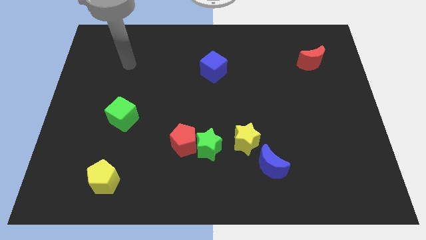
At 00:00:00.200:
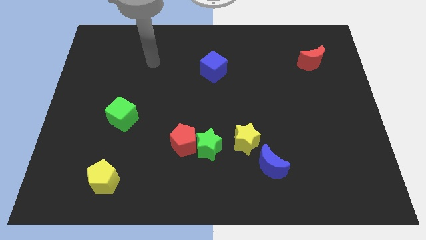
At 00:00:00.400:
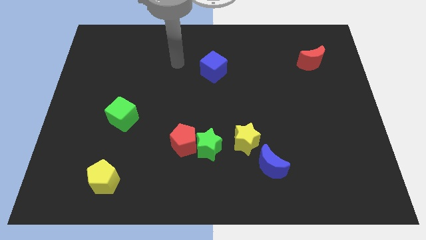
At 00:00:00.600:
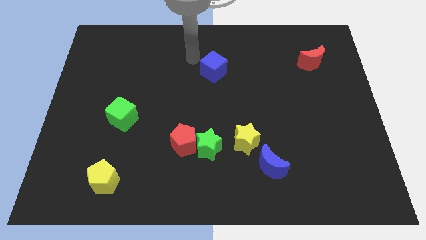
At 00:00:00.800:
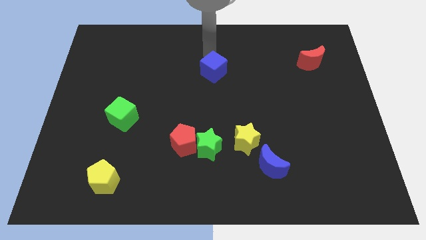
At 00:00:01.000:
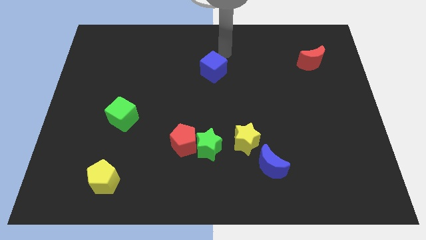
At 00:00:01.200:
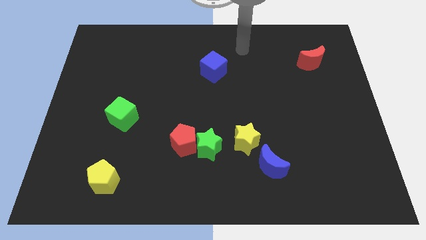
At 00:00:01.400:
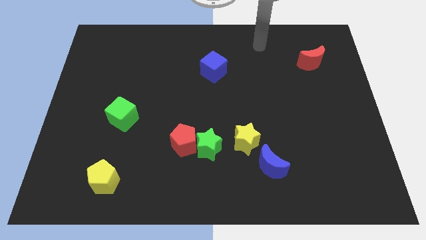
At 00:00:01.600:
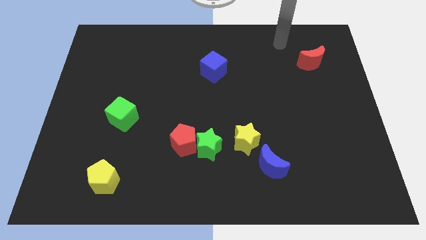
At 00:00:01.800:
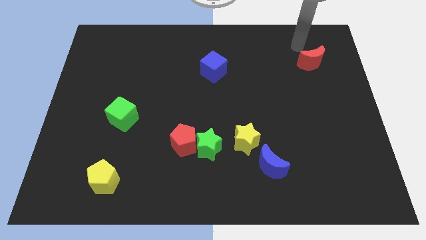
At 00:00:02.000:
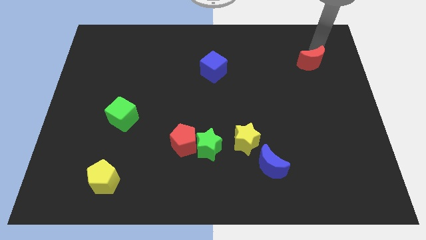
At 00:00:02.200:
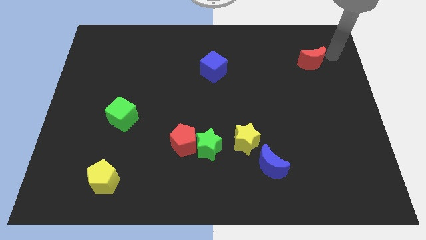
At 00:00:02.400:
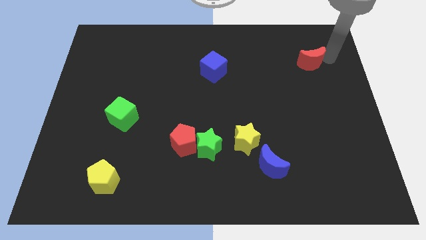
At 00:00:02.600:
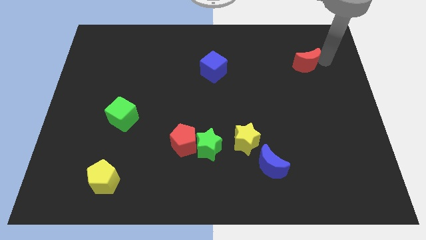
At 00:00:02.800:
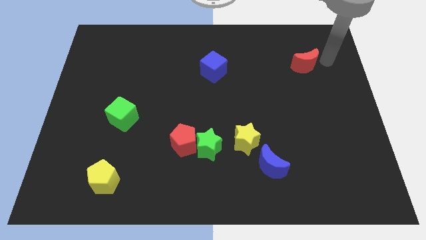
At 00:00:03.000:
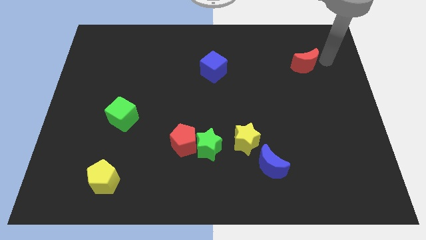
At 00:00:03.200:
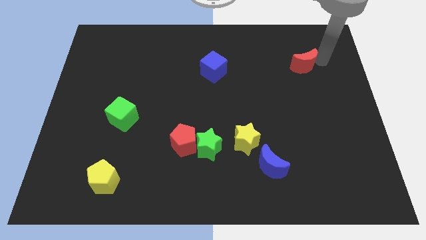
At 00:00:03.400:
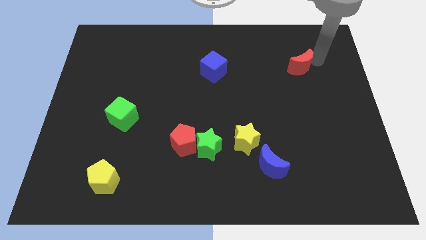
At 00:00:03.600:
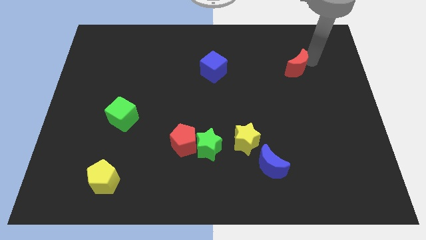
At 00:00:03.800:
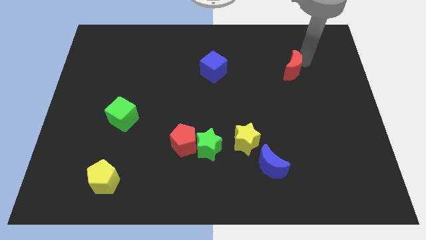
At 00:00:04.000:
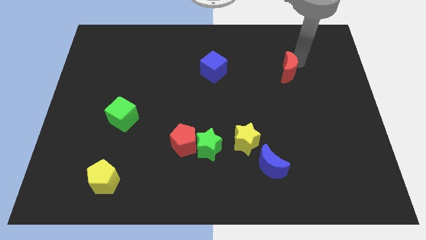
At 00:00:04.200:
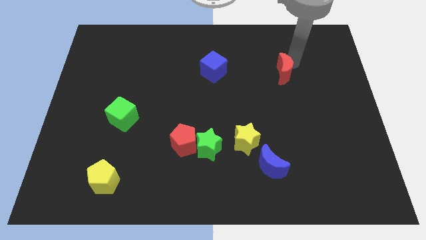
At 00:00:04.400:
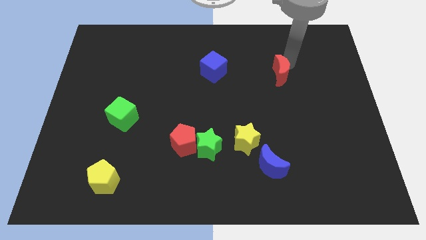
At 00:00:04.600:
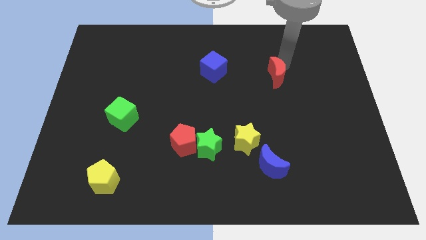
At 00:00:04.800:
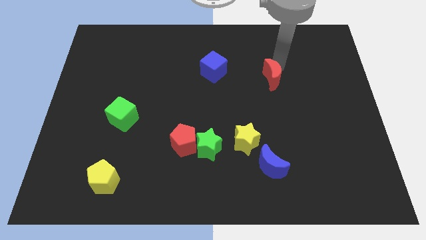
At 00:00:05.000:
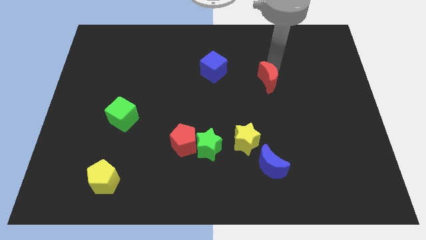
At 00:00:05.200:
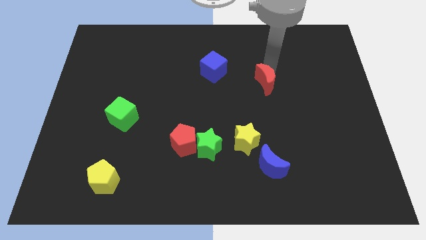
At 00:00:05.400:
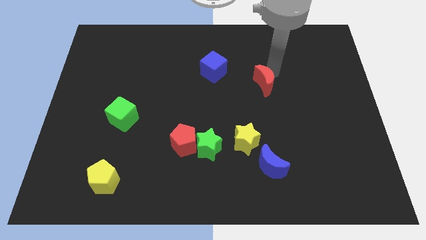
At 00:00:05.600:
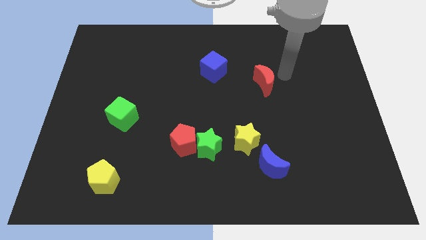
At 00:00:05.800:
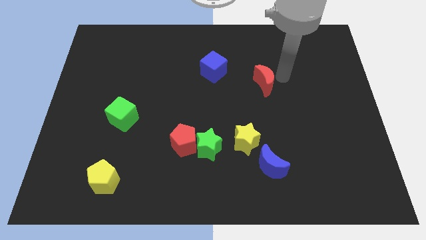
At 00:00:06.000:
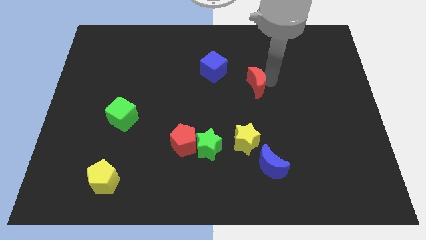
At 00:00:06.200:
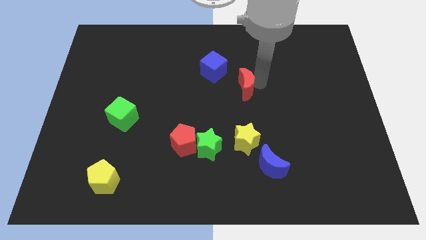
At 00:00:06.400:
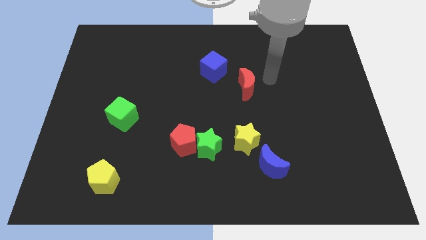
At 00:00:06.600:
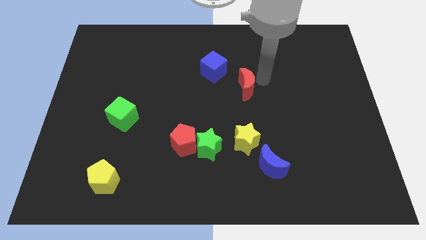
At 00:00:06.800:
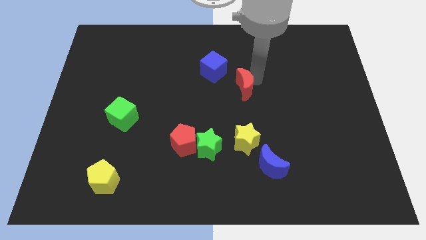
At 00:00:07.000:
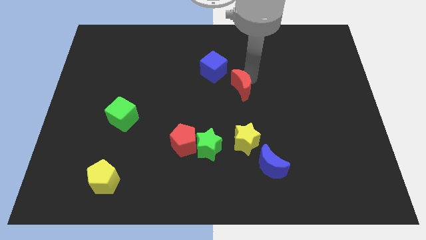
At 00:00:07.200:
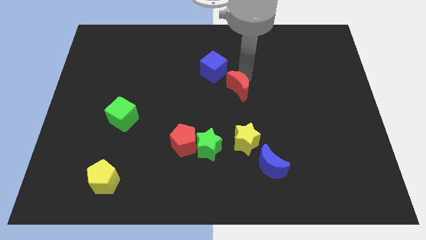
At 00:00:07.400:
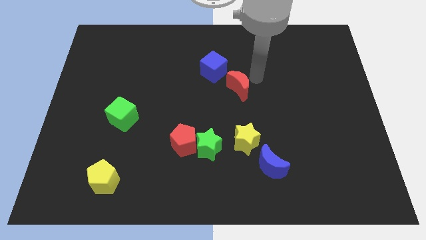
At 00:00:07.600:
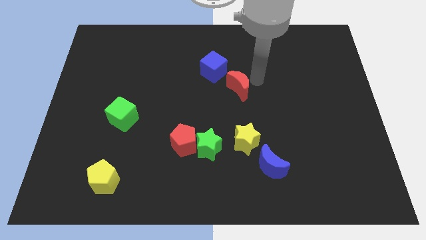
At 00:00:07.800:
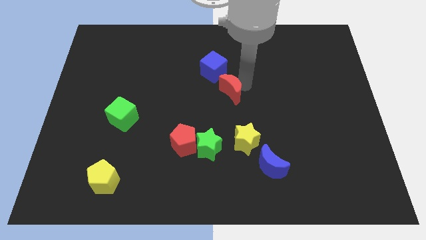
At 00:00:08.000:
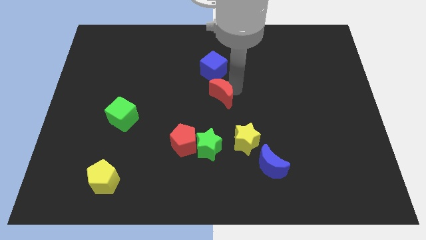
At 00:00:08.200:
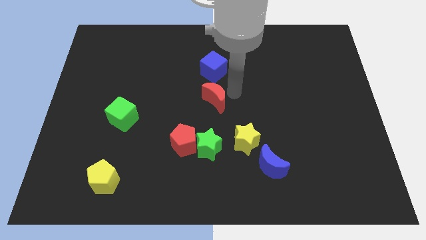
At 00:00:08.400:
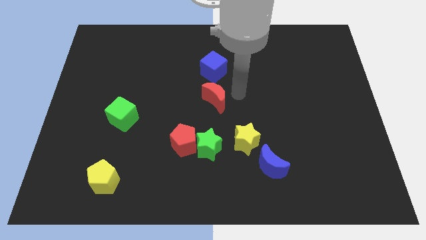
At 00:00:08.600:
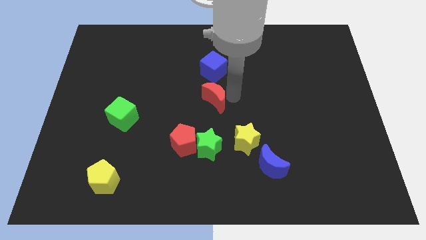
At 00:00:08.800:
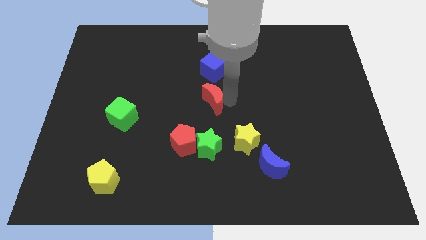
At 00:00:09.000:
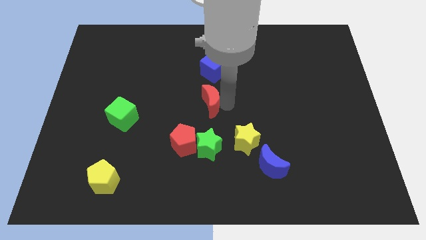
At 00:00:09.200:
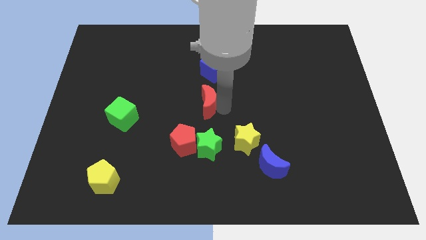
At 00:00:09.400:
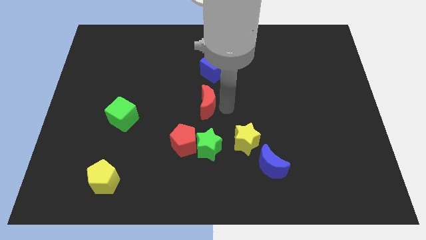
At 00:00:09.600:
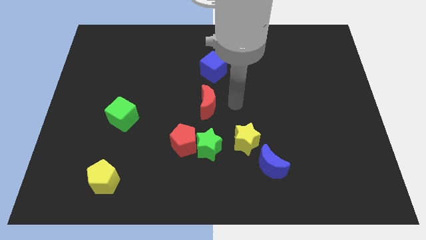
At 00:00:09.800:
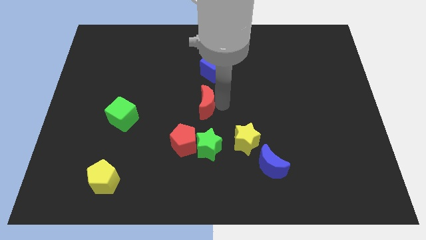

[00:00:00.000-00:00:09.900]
slide the red moon to the top of the red pentagon

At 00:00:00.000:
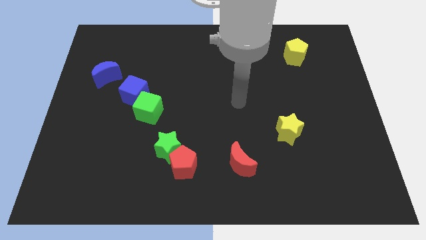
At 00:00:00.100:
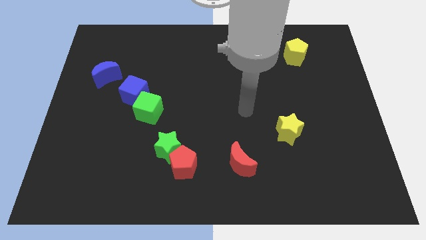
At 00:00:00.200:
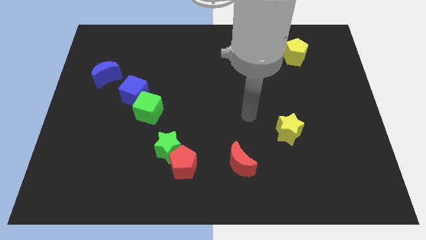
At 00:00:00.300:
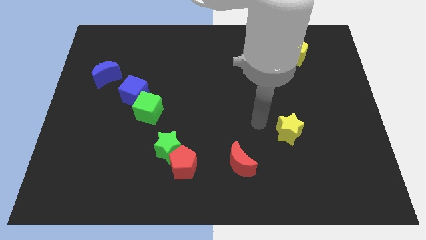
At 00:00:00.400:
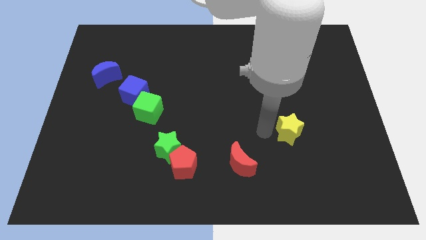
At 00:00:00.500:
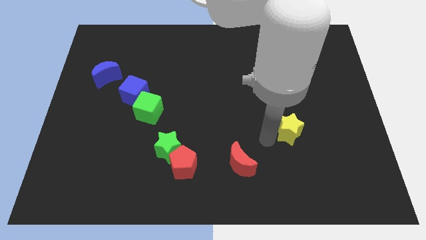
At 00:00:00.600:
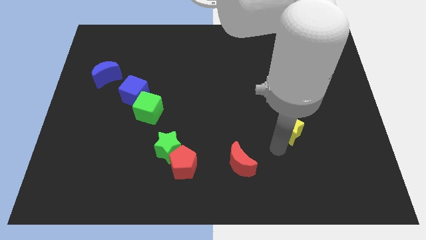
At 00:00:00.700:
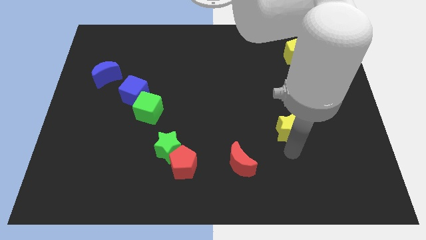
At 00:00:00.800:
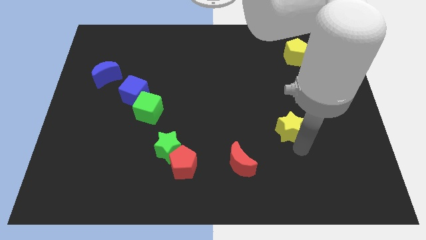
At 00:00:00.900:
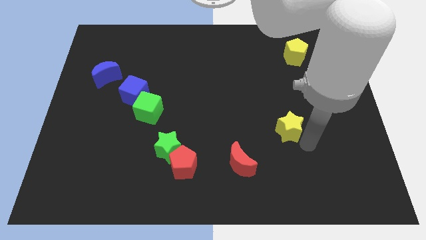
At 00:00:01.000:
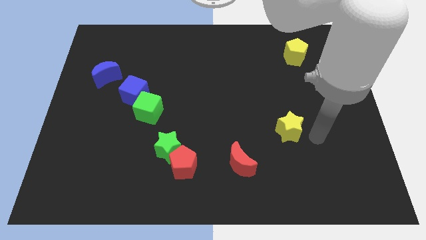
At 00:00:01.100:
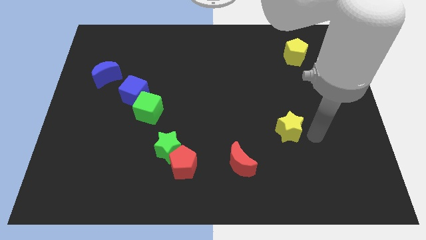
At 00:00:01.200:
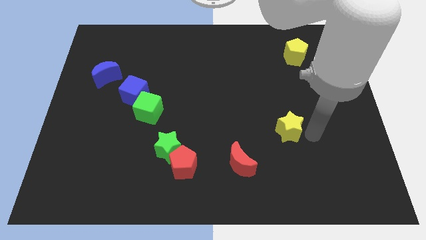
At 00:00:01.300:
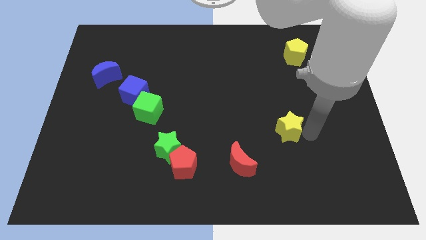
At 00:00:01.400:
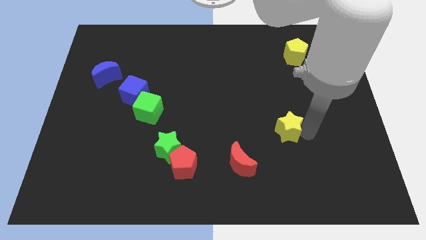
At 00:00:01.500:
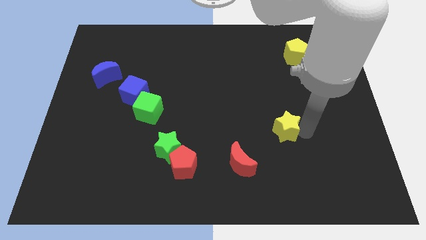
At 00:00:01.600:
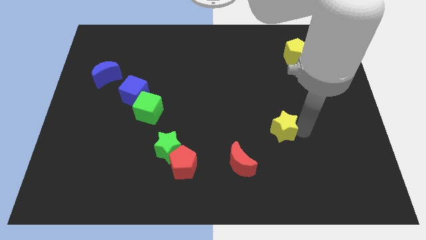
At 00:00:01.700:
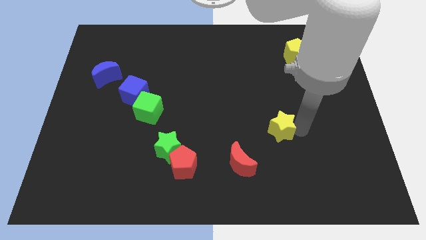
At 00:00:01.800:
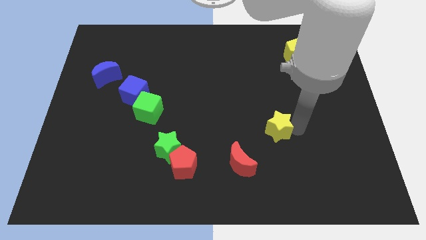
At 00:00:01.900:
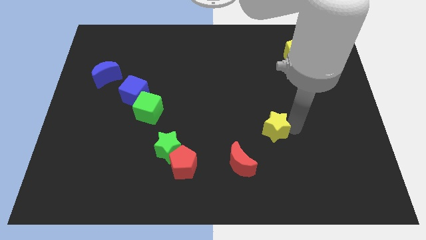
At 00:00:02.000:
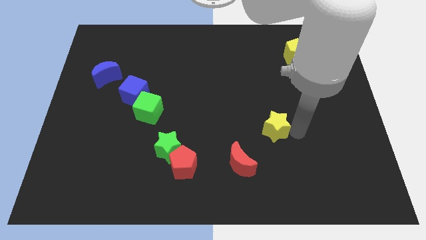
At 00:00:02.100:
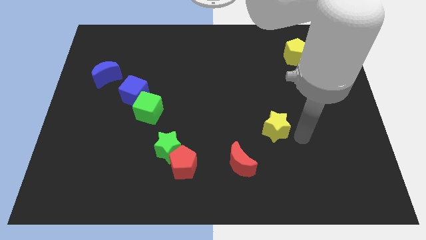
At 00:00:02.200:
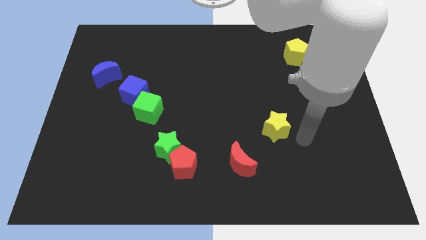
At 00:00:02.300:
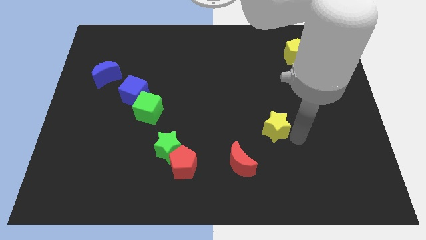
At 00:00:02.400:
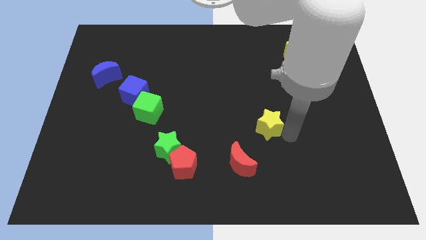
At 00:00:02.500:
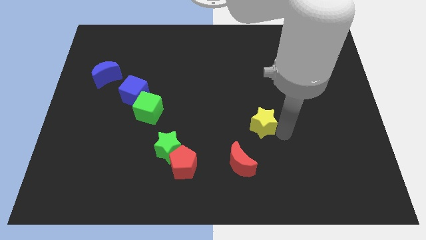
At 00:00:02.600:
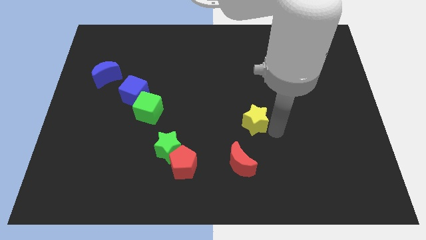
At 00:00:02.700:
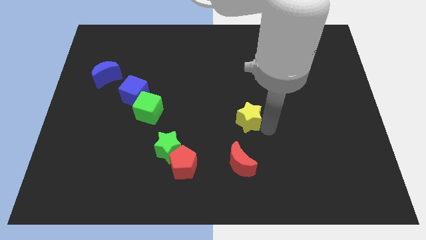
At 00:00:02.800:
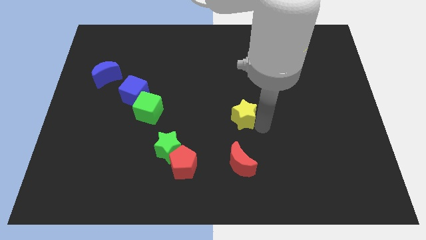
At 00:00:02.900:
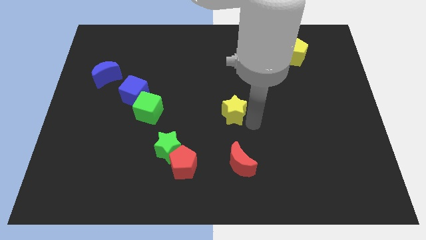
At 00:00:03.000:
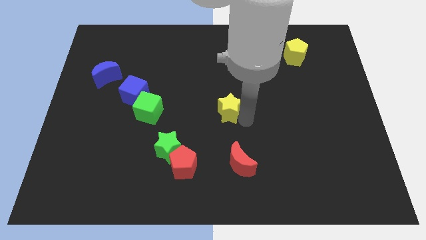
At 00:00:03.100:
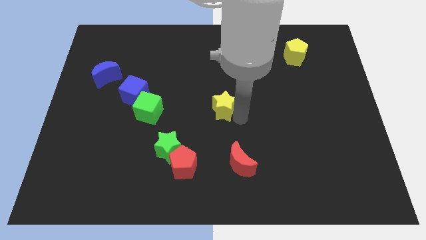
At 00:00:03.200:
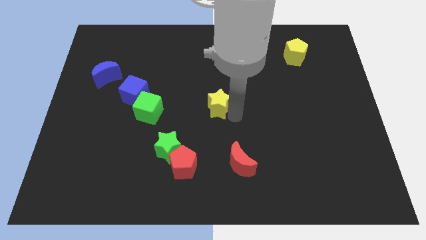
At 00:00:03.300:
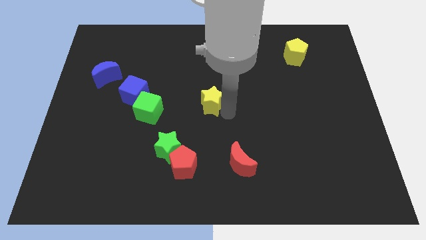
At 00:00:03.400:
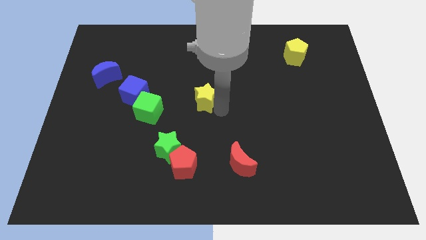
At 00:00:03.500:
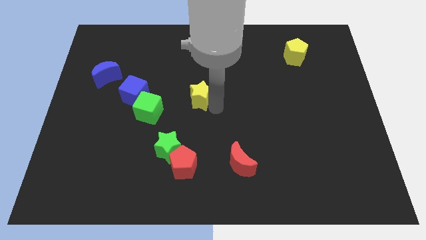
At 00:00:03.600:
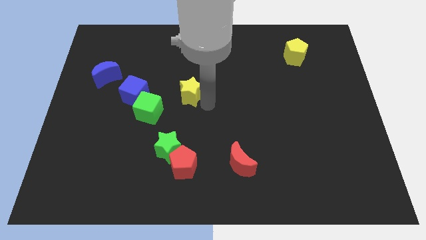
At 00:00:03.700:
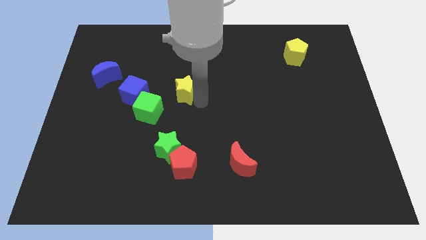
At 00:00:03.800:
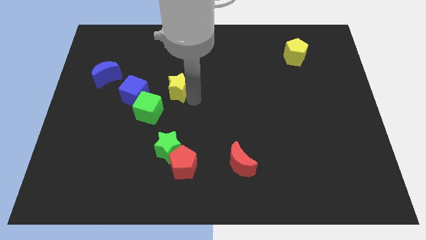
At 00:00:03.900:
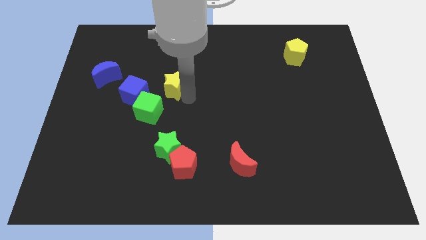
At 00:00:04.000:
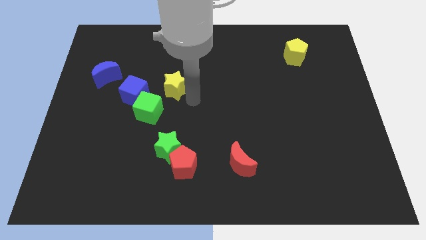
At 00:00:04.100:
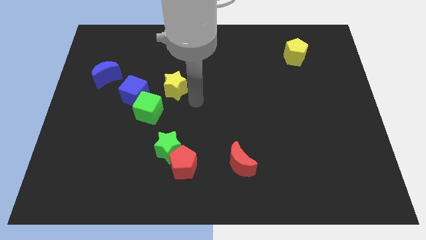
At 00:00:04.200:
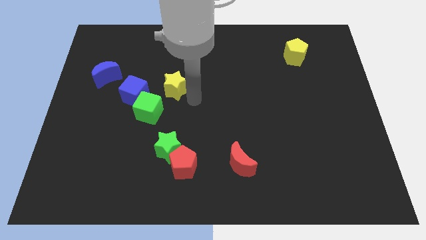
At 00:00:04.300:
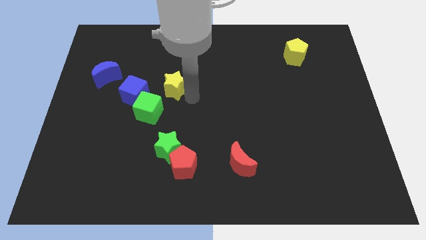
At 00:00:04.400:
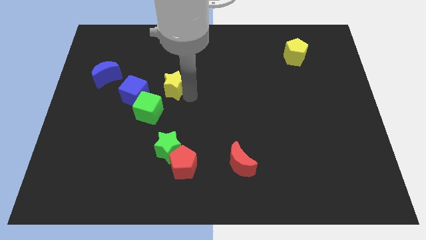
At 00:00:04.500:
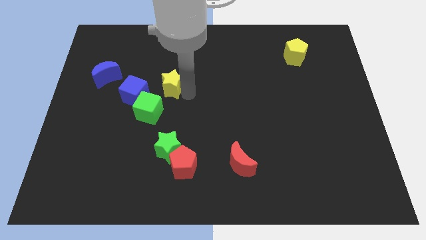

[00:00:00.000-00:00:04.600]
put the yellow star to the top of the green cube
